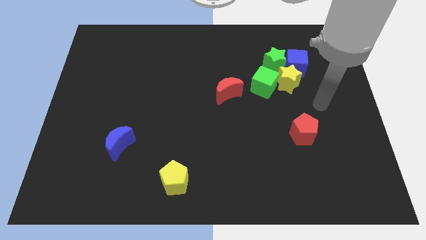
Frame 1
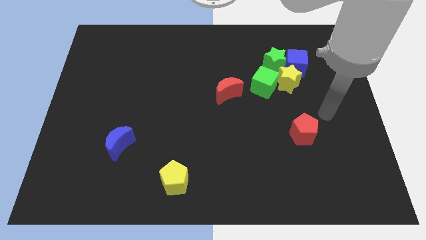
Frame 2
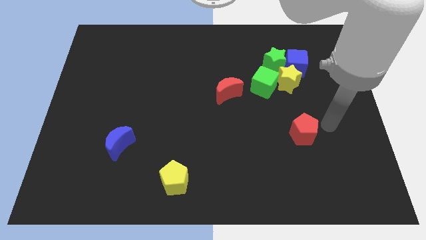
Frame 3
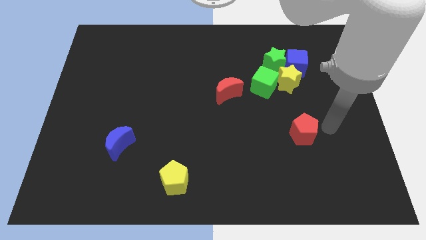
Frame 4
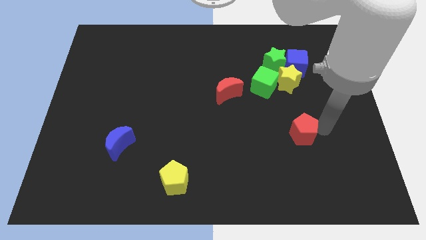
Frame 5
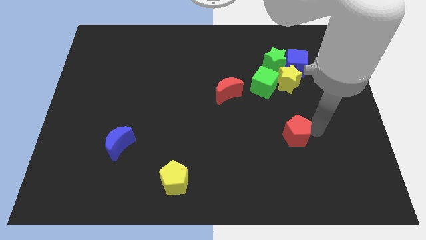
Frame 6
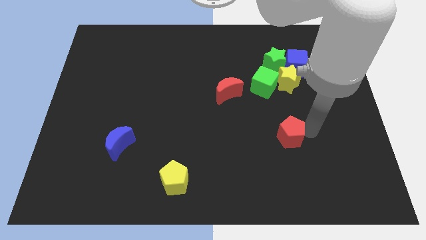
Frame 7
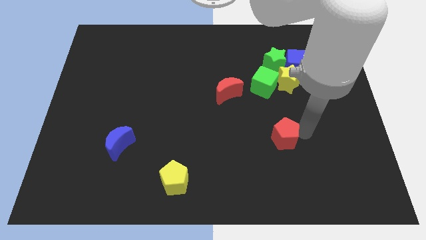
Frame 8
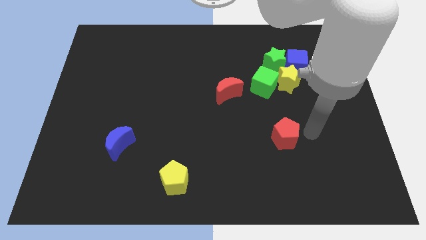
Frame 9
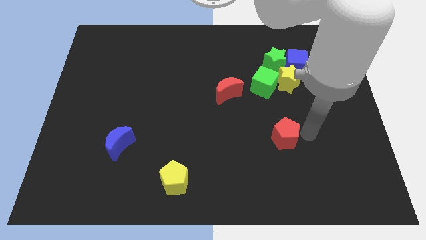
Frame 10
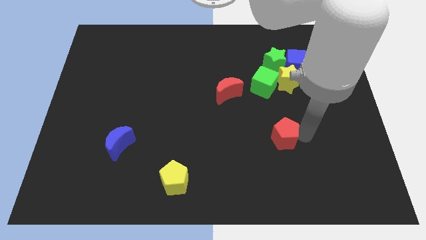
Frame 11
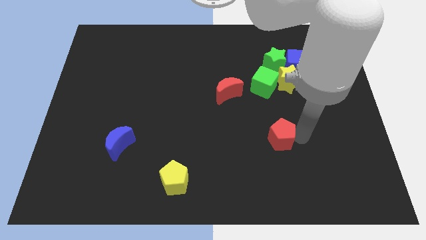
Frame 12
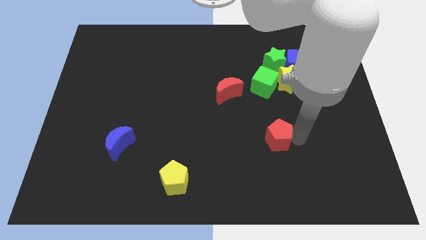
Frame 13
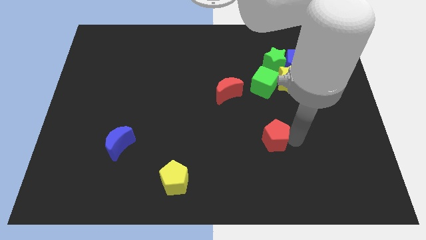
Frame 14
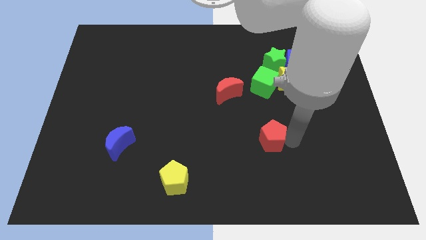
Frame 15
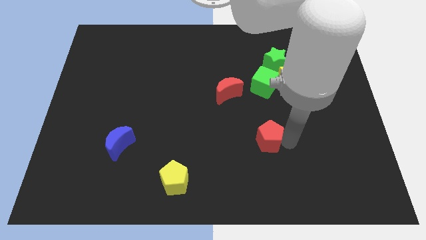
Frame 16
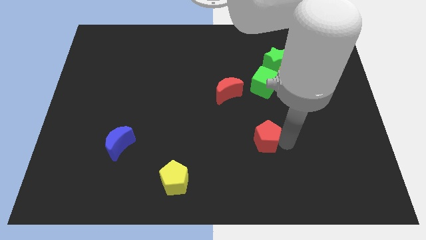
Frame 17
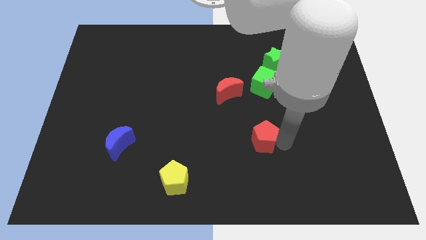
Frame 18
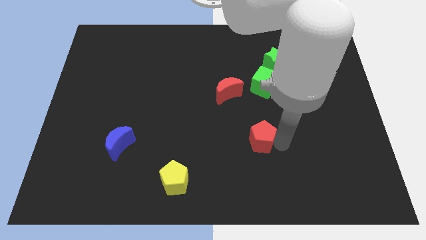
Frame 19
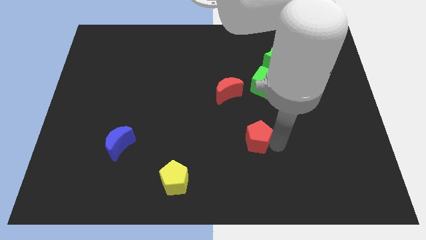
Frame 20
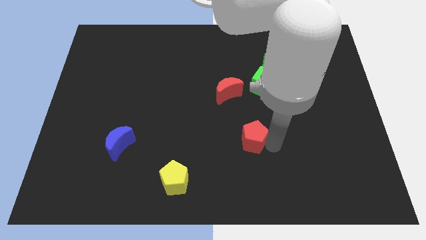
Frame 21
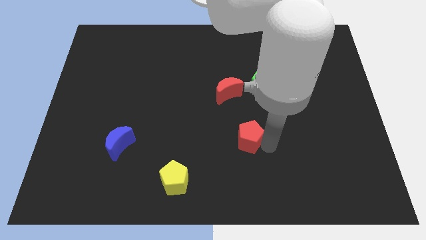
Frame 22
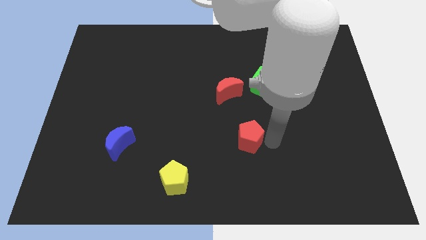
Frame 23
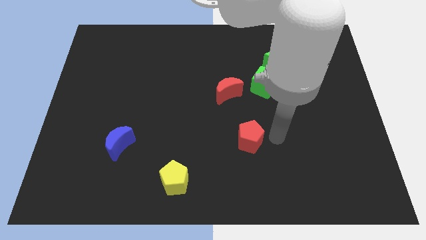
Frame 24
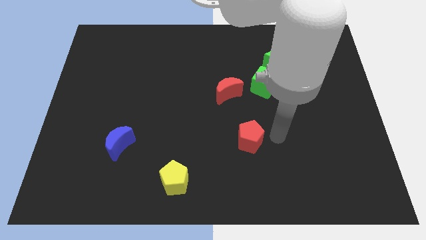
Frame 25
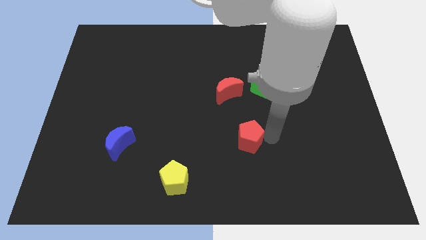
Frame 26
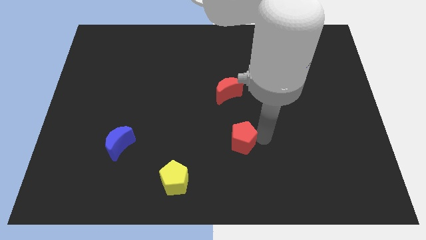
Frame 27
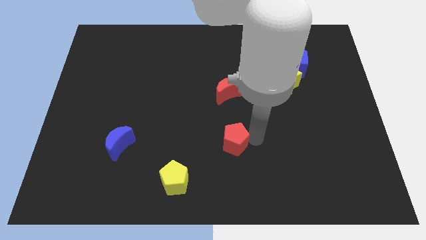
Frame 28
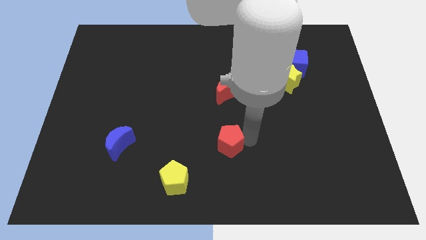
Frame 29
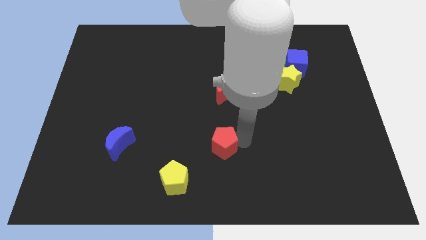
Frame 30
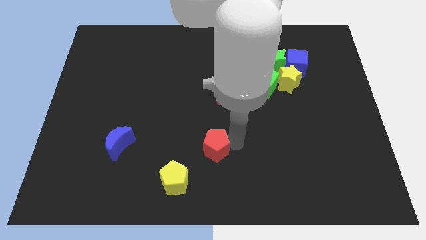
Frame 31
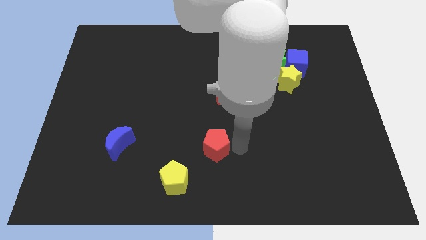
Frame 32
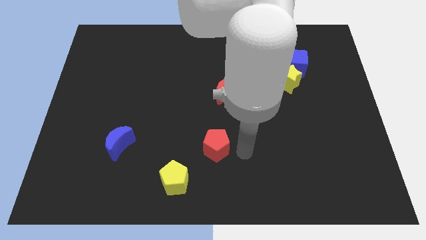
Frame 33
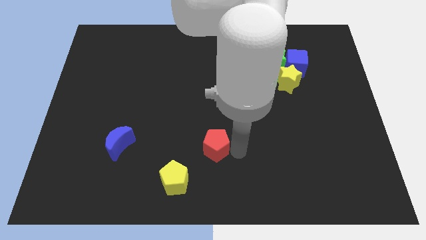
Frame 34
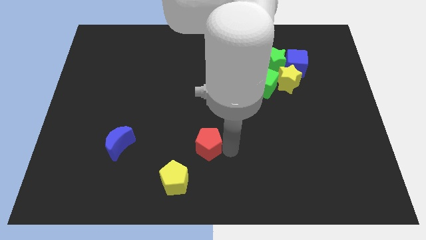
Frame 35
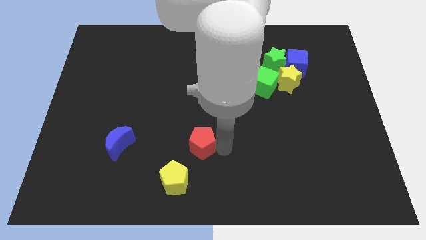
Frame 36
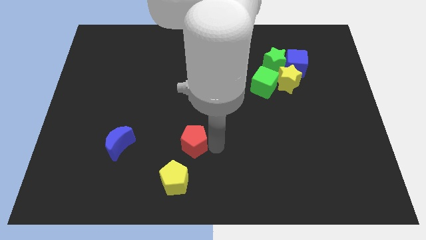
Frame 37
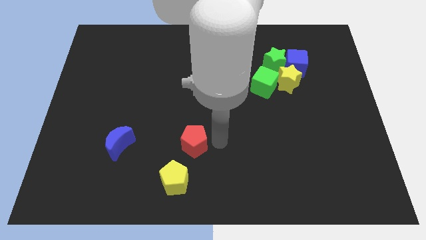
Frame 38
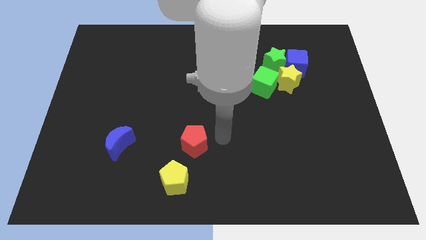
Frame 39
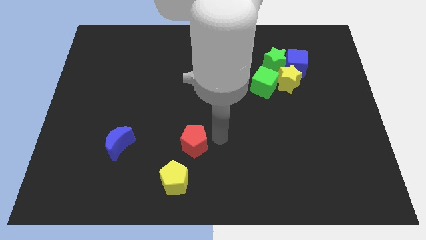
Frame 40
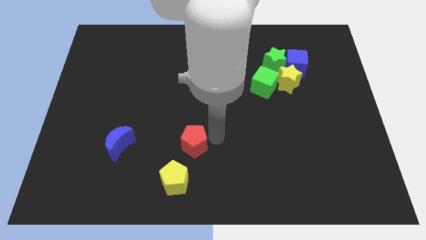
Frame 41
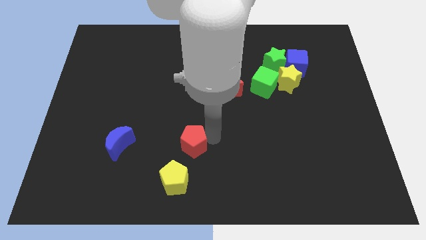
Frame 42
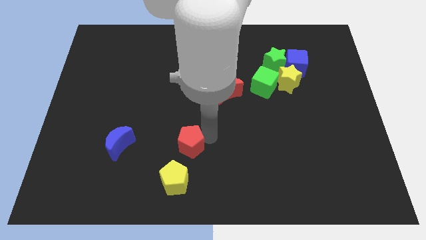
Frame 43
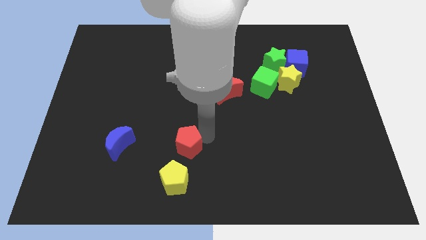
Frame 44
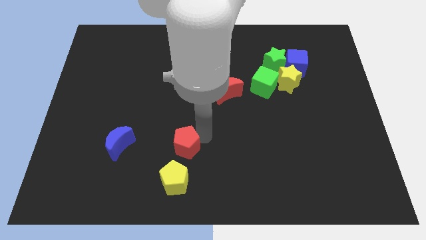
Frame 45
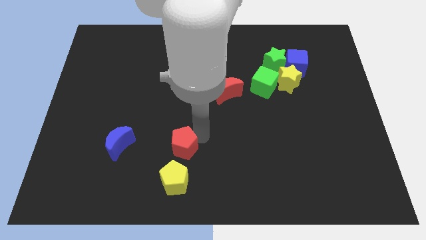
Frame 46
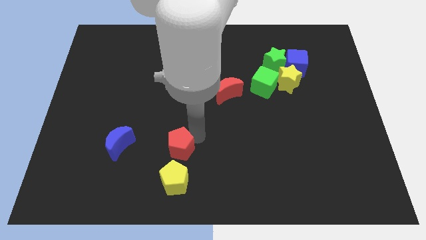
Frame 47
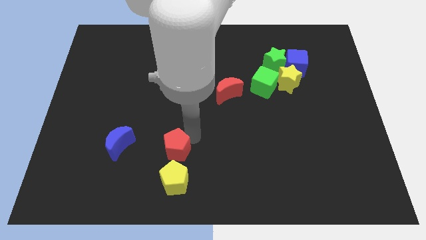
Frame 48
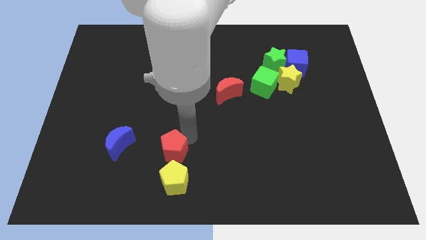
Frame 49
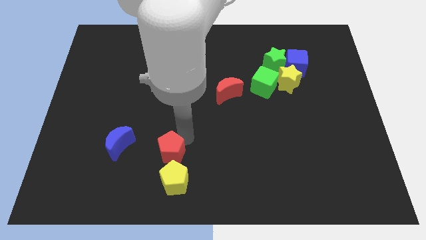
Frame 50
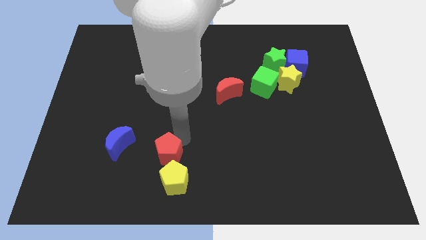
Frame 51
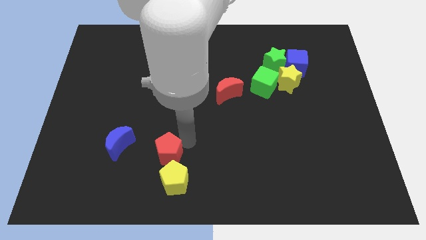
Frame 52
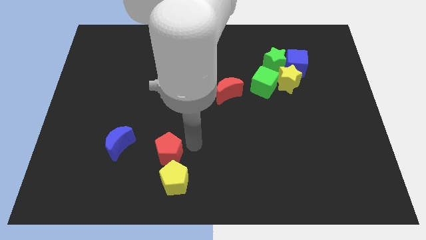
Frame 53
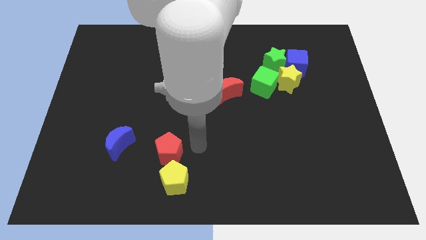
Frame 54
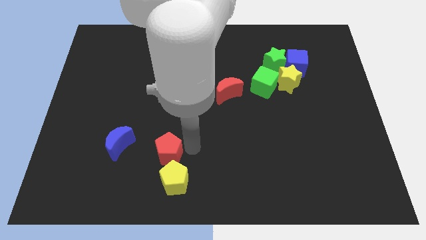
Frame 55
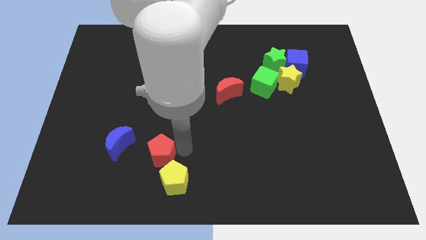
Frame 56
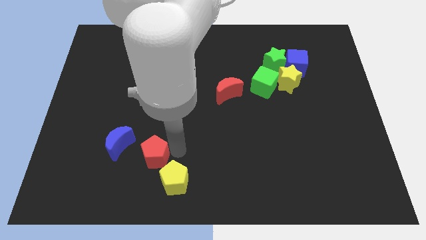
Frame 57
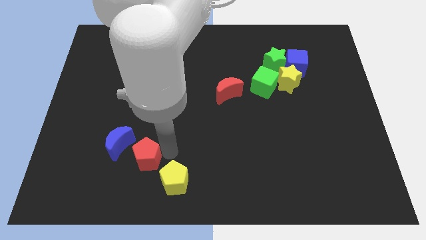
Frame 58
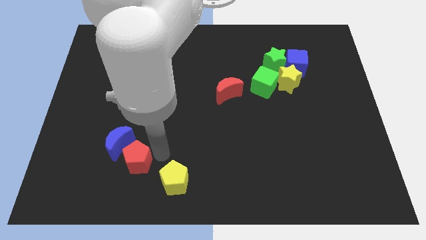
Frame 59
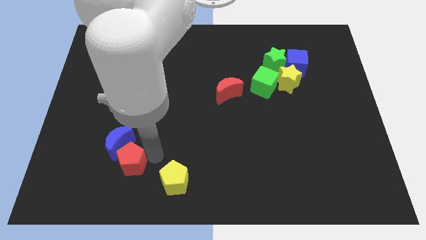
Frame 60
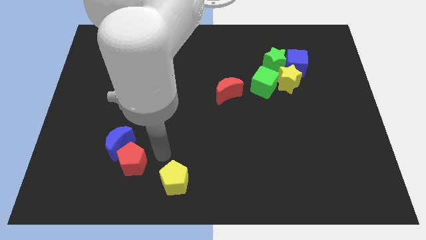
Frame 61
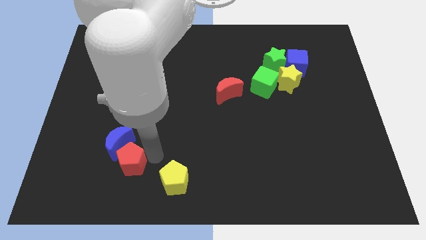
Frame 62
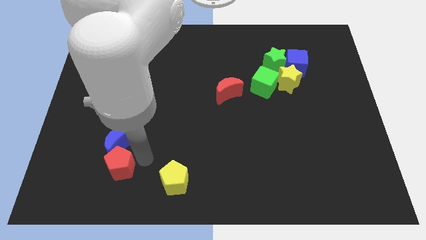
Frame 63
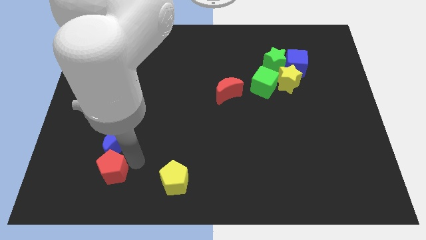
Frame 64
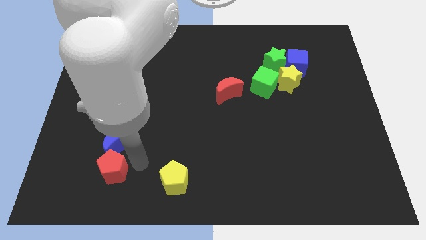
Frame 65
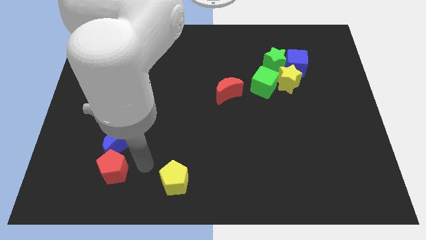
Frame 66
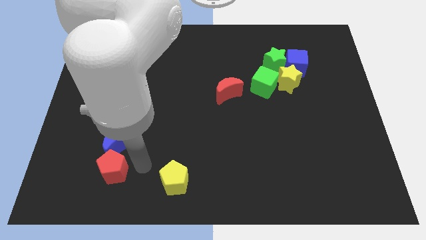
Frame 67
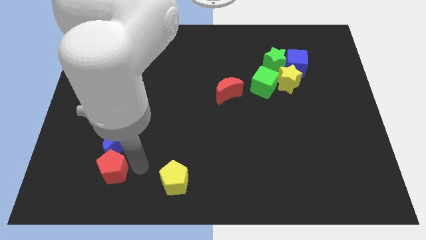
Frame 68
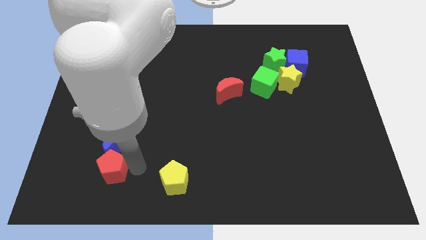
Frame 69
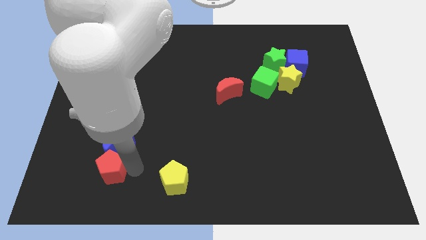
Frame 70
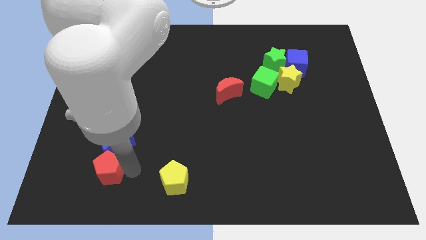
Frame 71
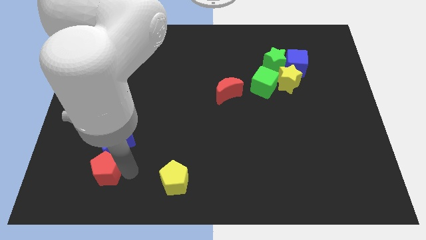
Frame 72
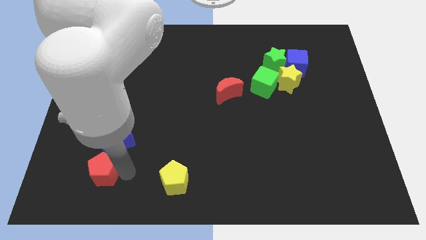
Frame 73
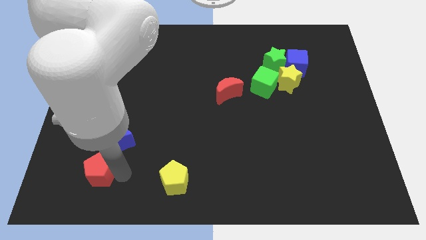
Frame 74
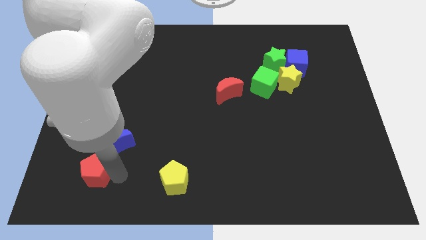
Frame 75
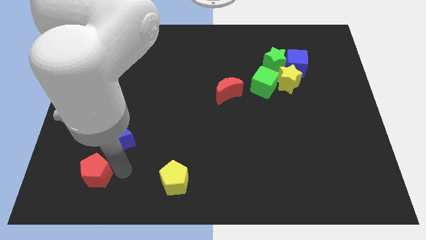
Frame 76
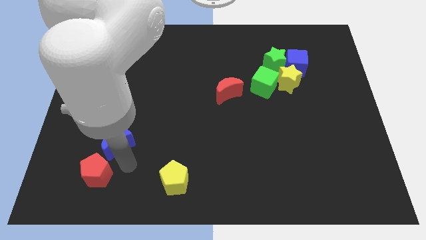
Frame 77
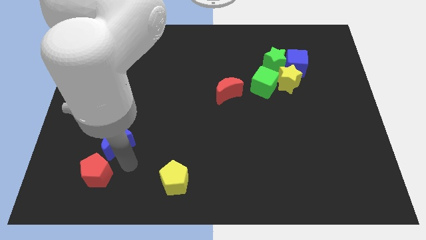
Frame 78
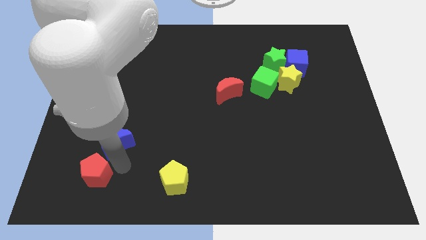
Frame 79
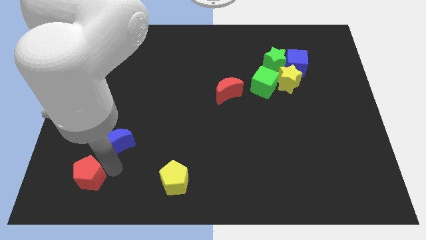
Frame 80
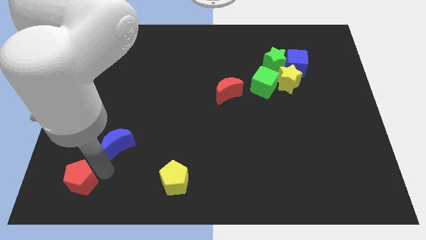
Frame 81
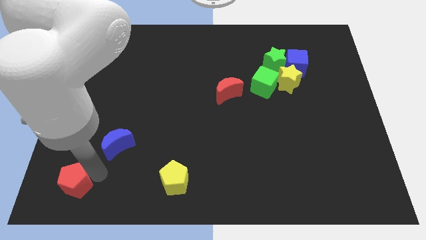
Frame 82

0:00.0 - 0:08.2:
move the red pentagon to the bottom left corner
